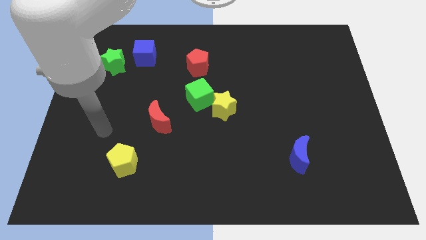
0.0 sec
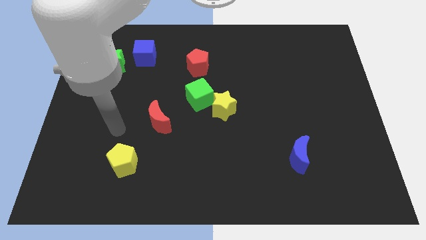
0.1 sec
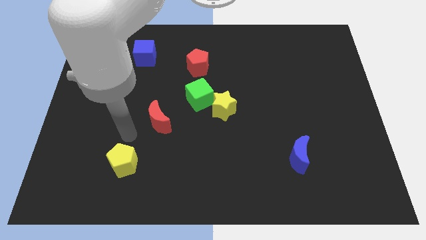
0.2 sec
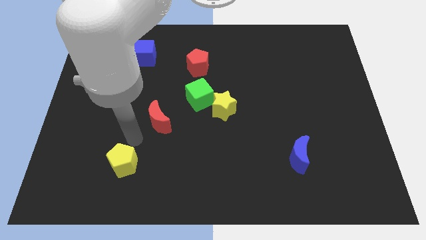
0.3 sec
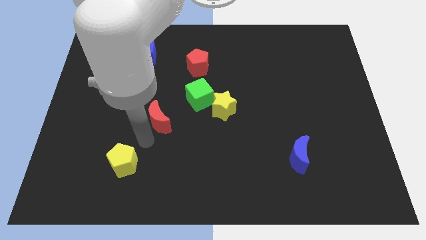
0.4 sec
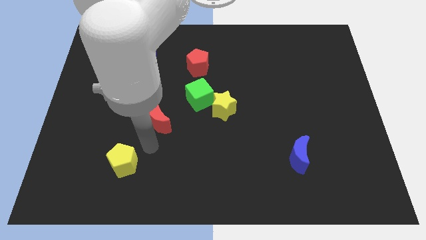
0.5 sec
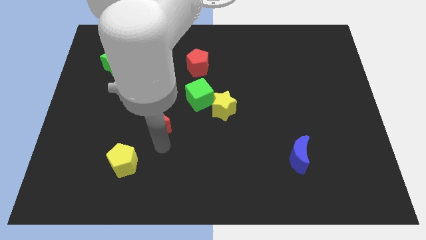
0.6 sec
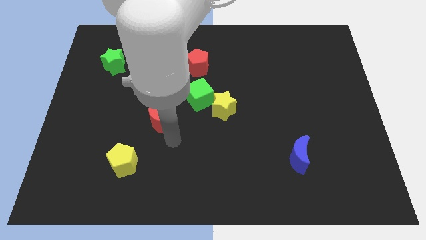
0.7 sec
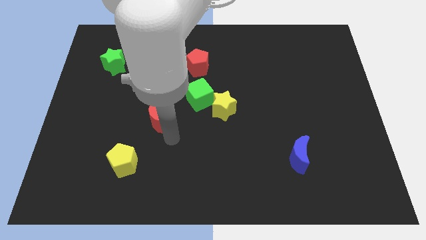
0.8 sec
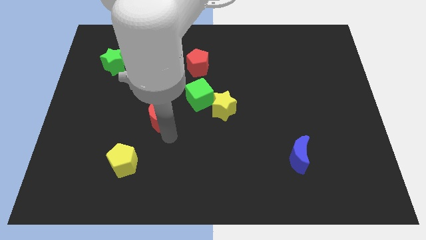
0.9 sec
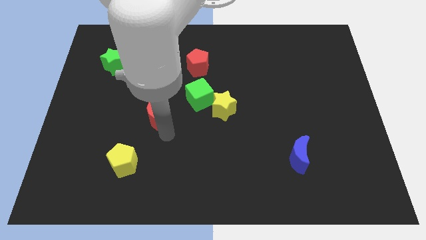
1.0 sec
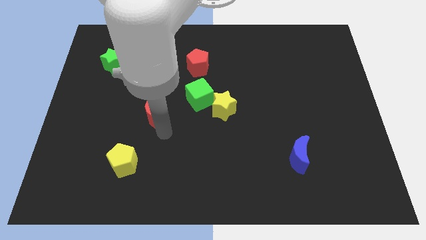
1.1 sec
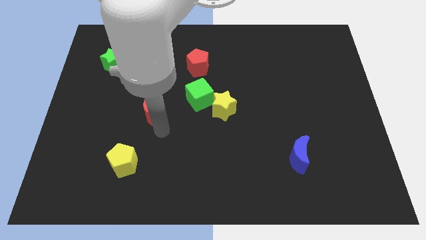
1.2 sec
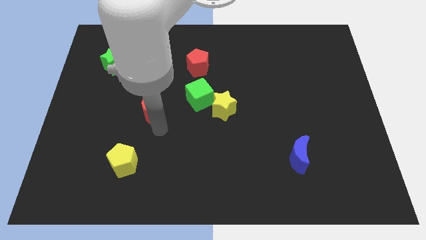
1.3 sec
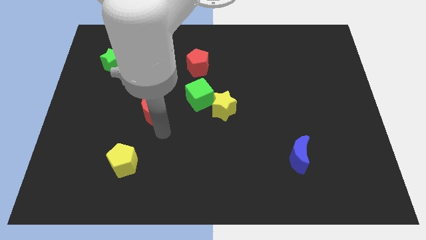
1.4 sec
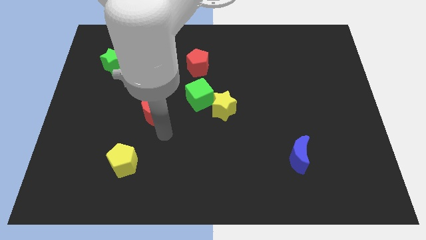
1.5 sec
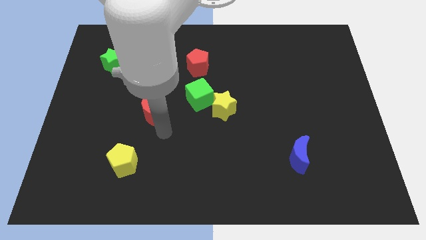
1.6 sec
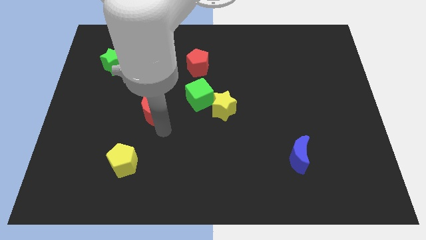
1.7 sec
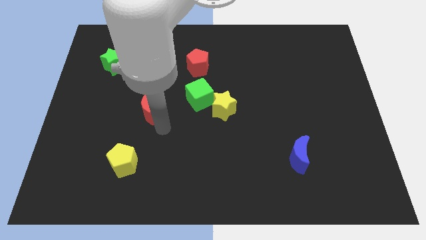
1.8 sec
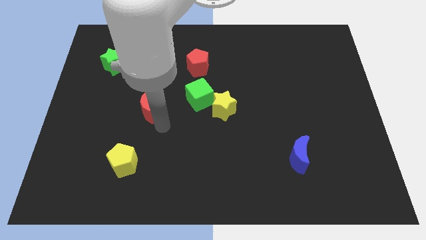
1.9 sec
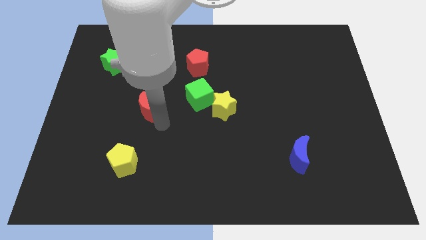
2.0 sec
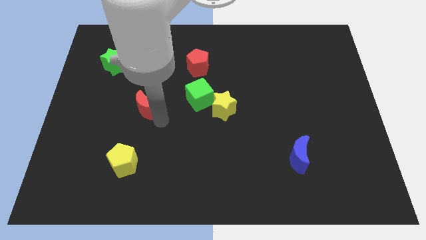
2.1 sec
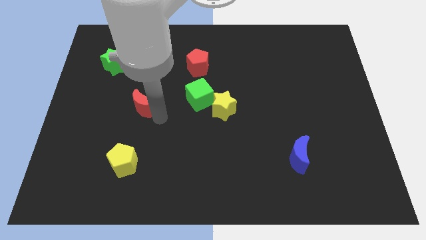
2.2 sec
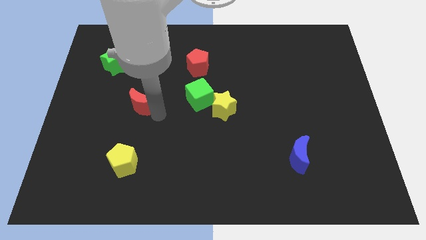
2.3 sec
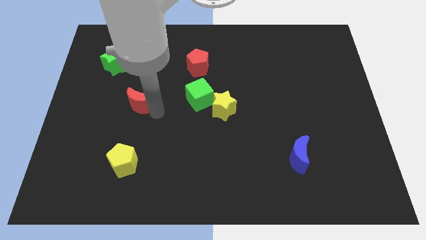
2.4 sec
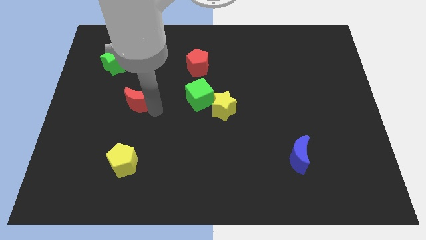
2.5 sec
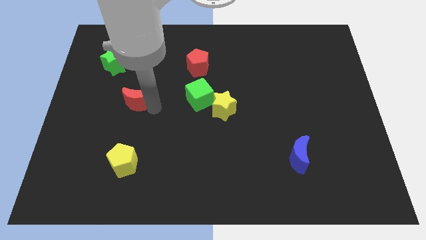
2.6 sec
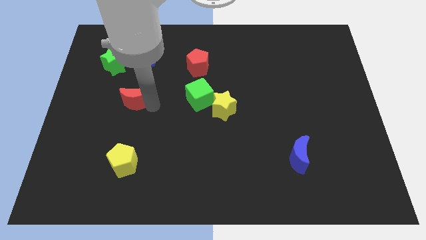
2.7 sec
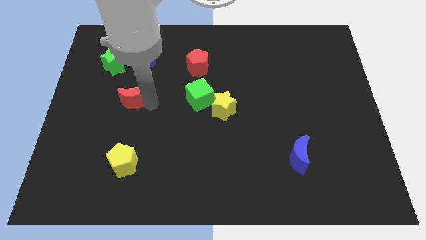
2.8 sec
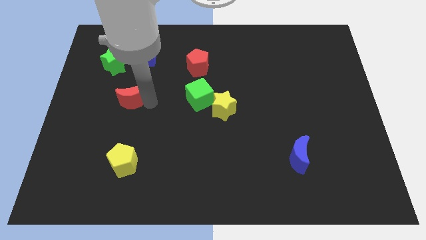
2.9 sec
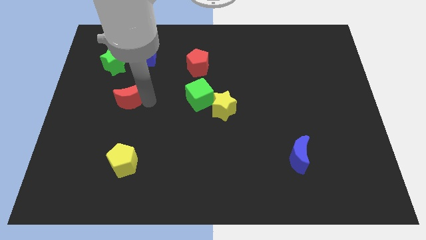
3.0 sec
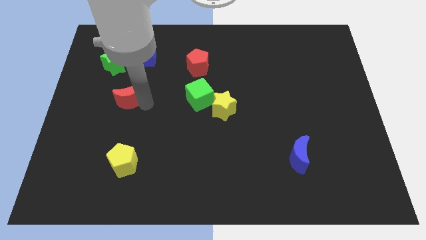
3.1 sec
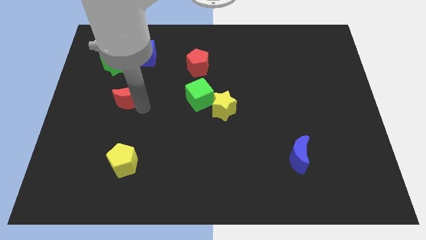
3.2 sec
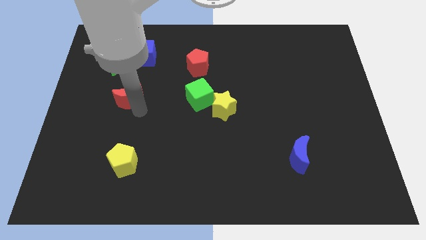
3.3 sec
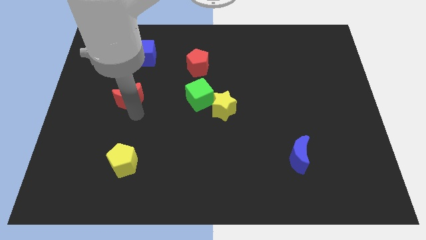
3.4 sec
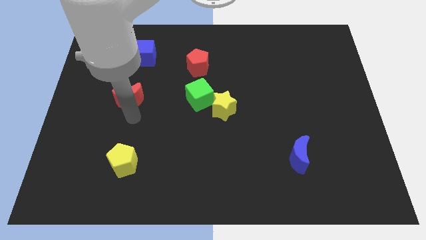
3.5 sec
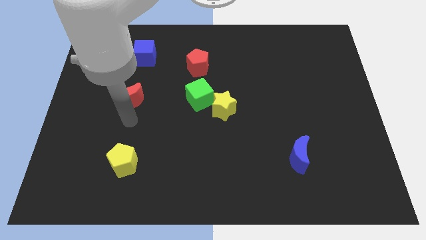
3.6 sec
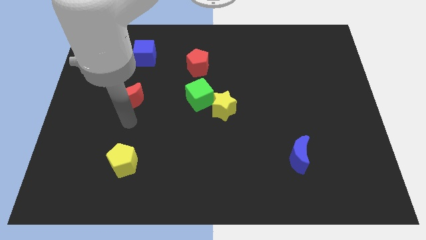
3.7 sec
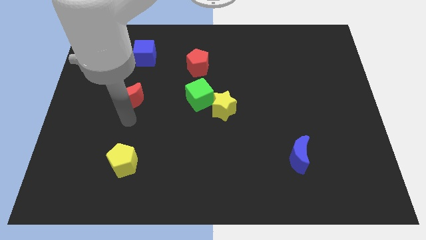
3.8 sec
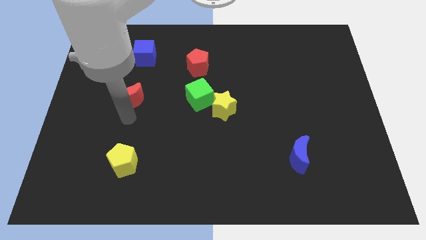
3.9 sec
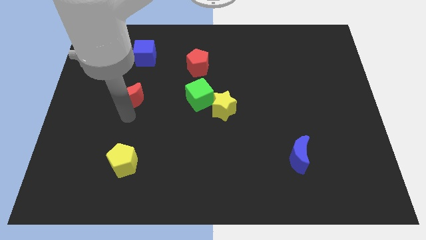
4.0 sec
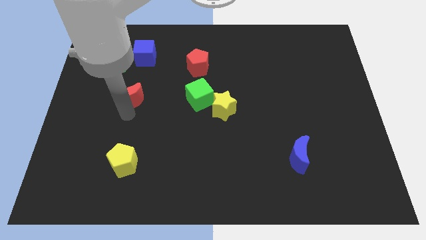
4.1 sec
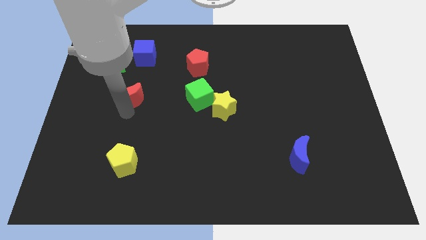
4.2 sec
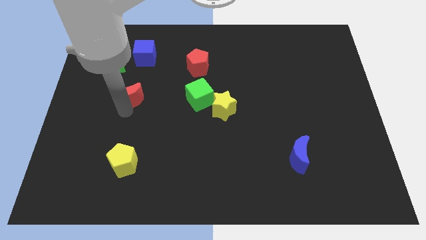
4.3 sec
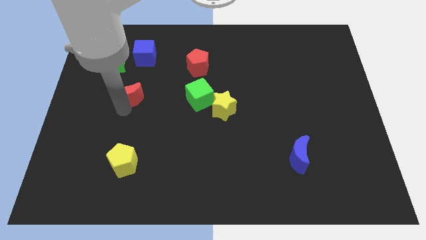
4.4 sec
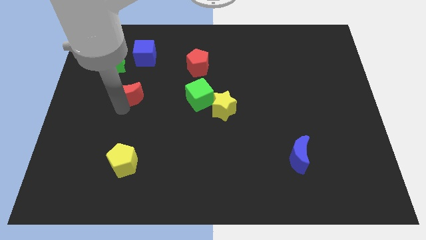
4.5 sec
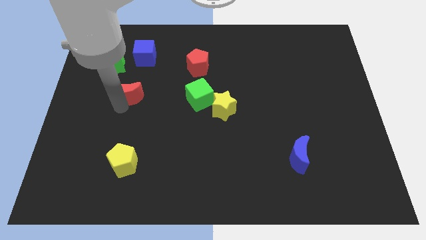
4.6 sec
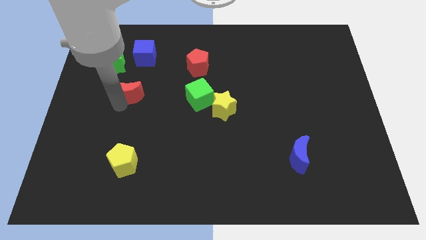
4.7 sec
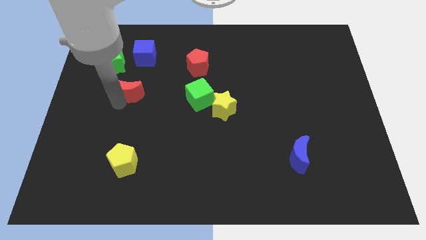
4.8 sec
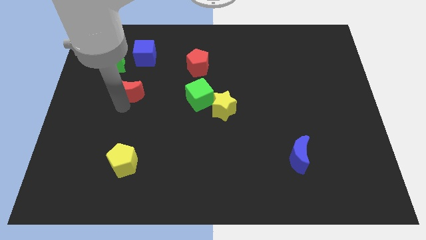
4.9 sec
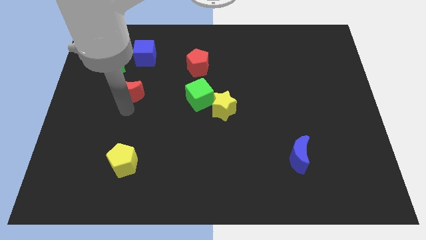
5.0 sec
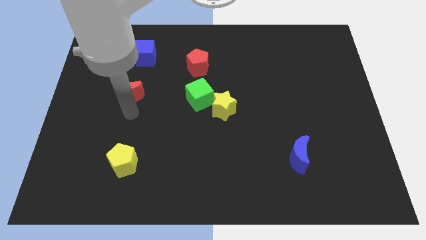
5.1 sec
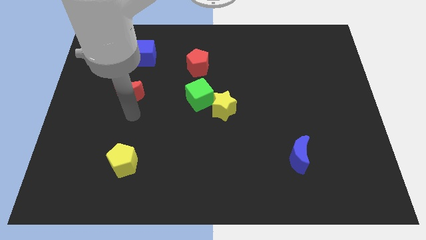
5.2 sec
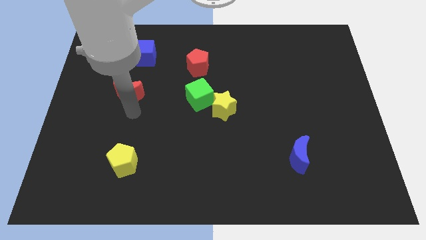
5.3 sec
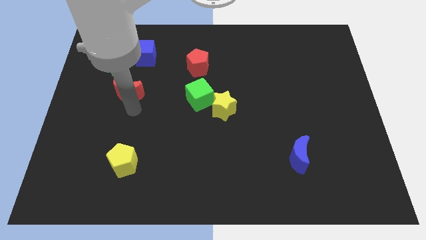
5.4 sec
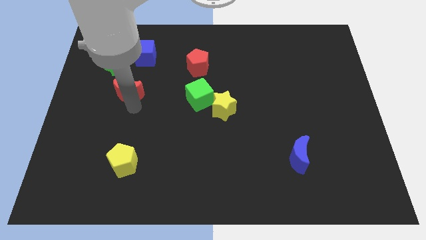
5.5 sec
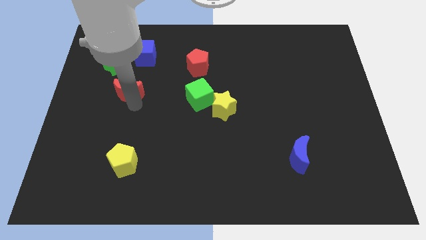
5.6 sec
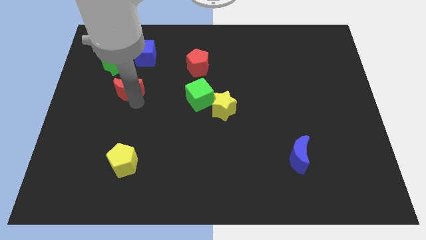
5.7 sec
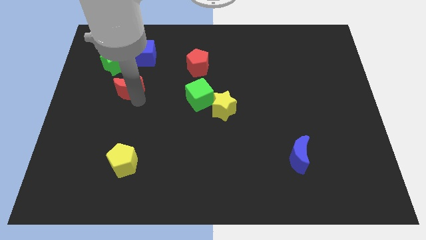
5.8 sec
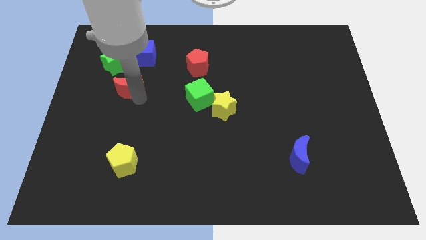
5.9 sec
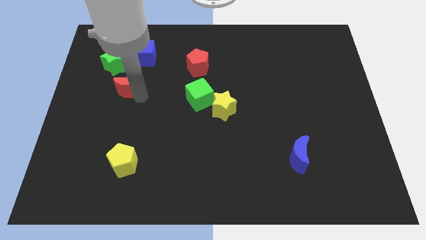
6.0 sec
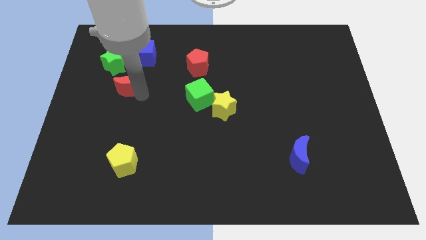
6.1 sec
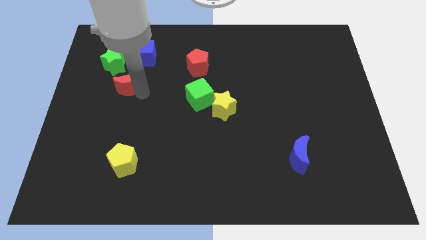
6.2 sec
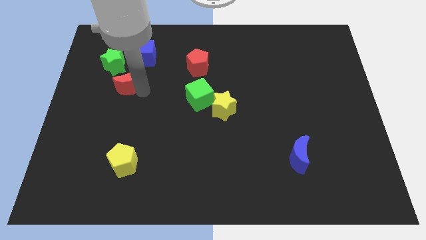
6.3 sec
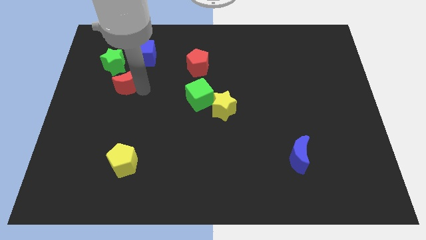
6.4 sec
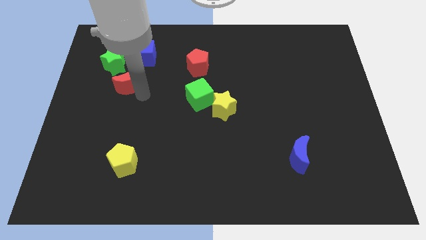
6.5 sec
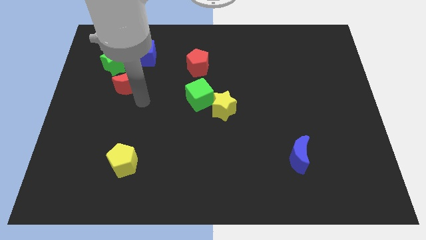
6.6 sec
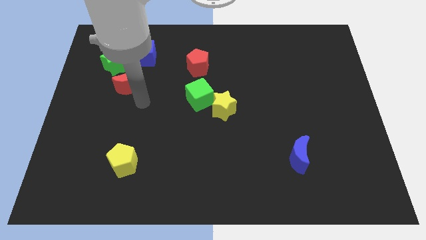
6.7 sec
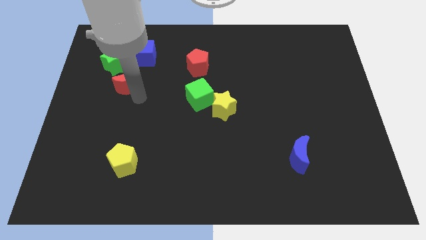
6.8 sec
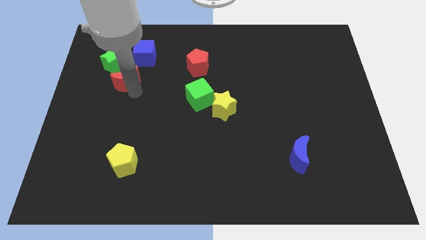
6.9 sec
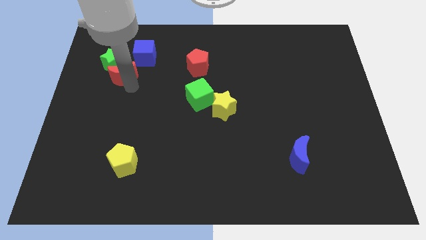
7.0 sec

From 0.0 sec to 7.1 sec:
slide the red moon towards the green star

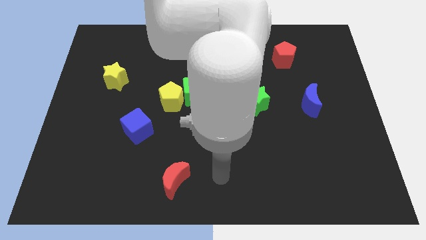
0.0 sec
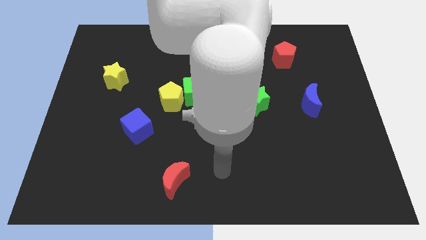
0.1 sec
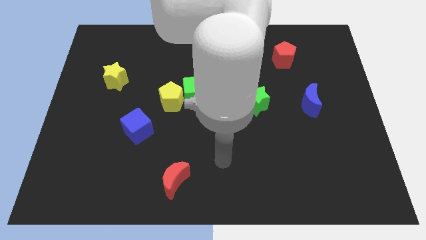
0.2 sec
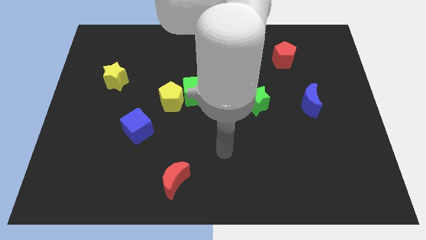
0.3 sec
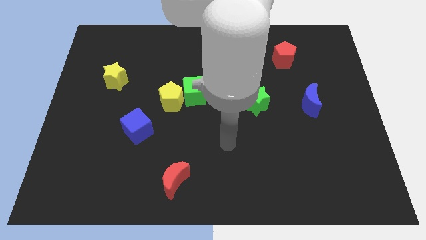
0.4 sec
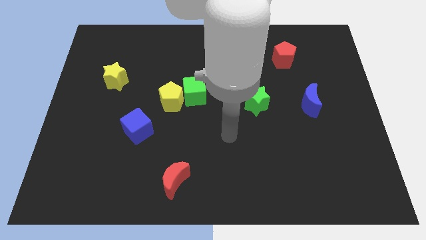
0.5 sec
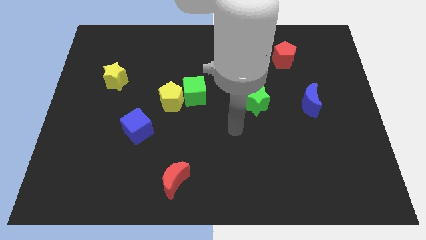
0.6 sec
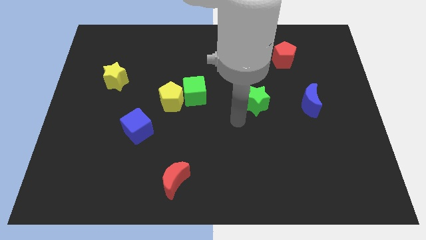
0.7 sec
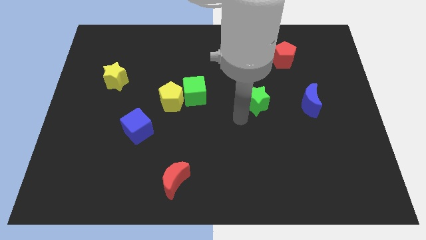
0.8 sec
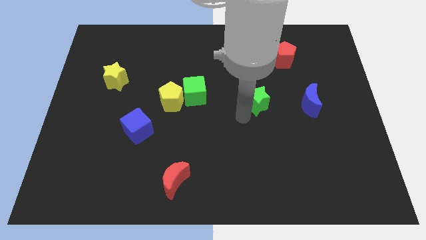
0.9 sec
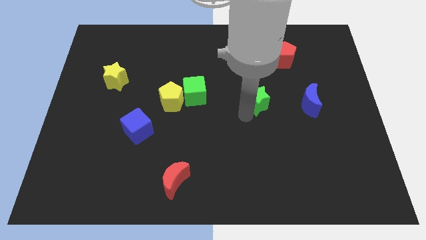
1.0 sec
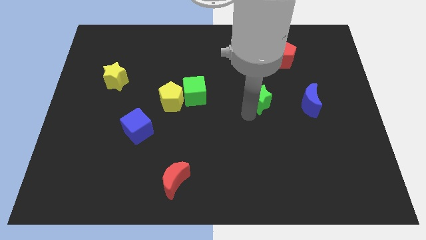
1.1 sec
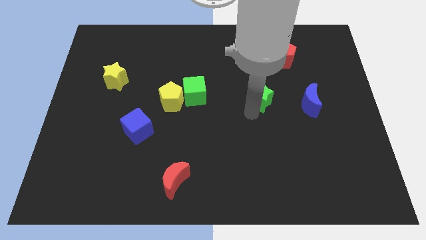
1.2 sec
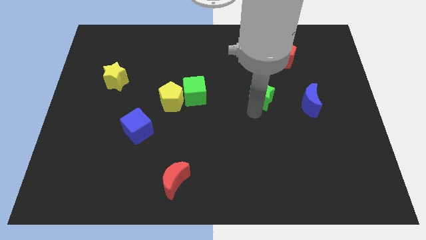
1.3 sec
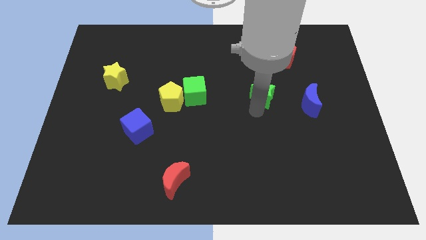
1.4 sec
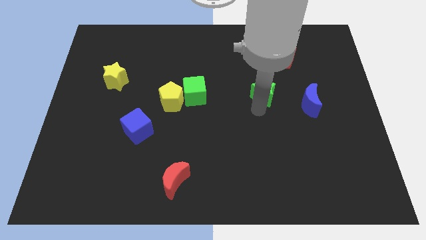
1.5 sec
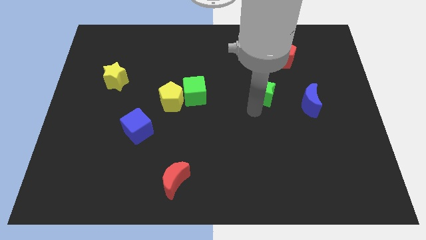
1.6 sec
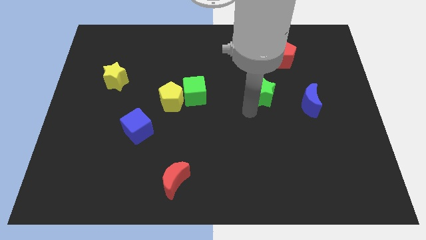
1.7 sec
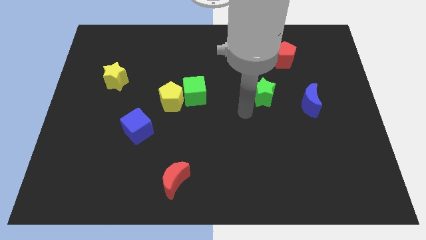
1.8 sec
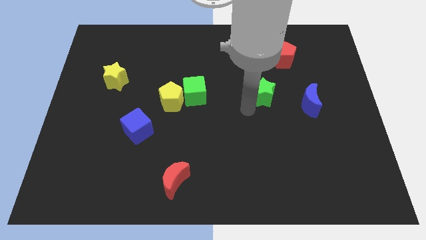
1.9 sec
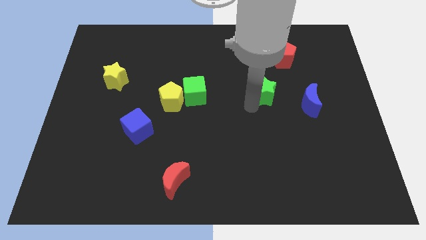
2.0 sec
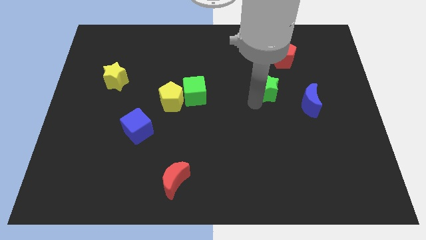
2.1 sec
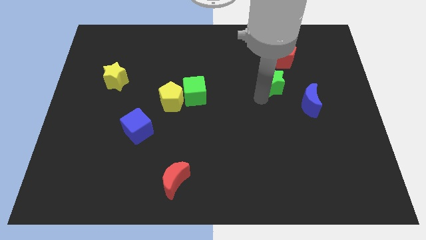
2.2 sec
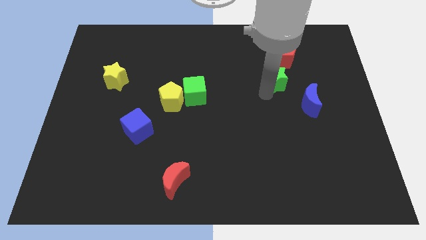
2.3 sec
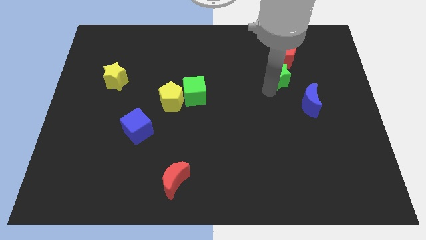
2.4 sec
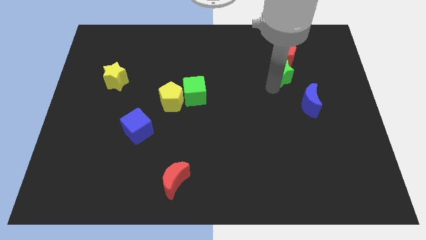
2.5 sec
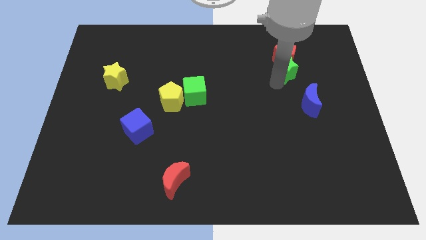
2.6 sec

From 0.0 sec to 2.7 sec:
put the green star towards the red pentagon
